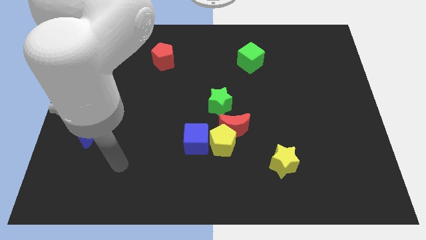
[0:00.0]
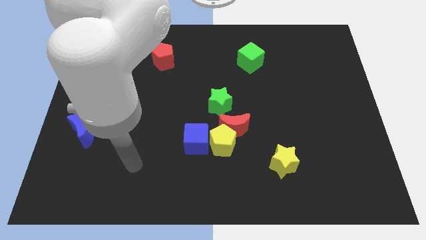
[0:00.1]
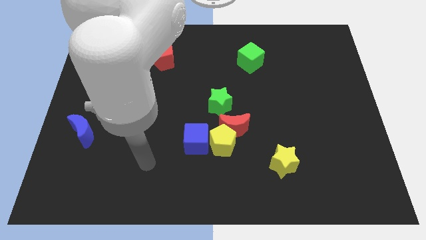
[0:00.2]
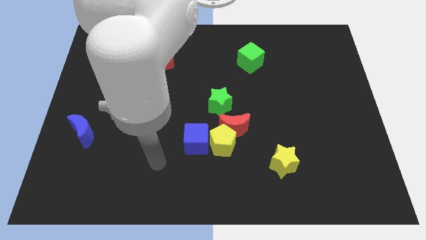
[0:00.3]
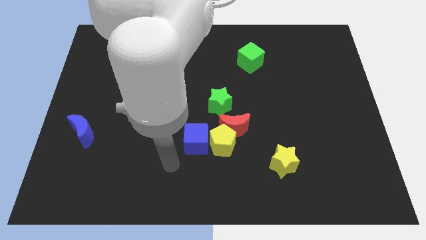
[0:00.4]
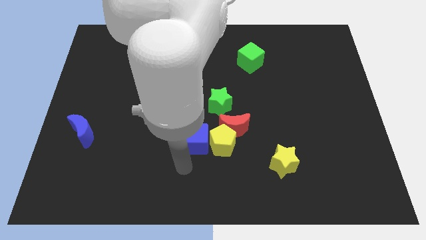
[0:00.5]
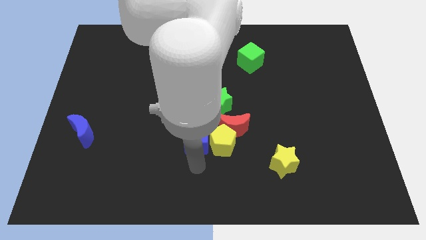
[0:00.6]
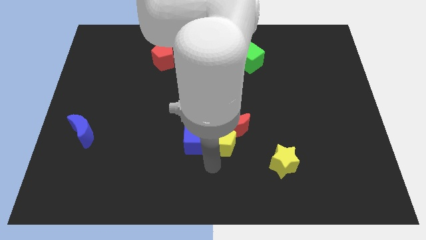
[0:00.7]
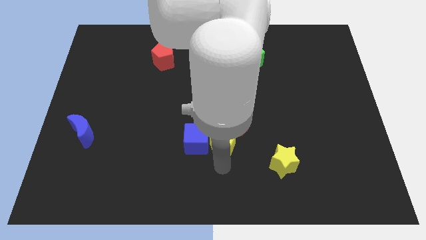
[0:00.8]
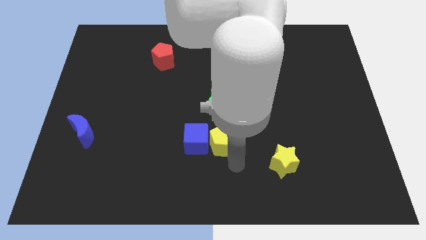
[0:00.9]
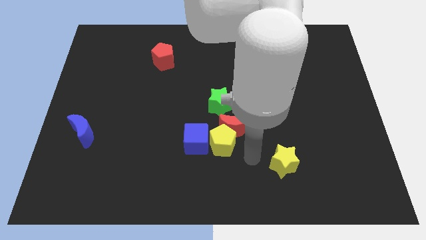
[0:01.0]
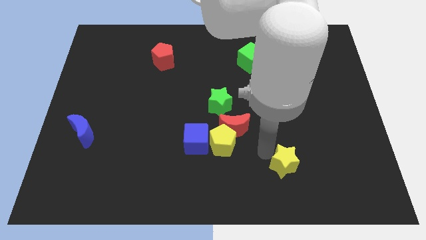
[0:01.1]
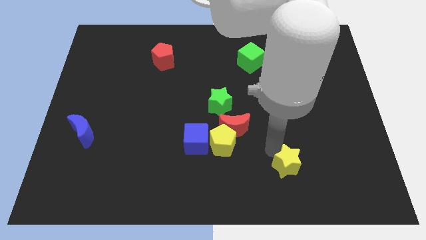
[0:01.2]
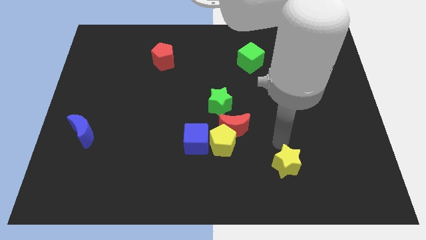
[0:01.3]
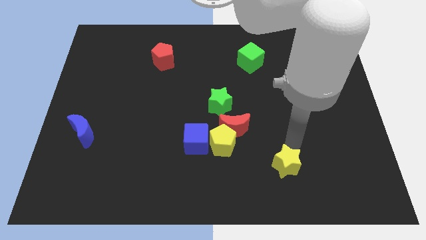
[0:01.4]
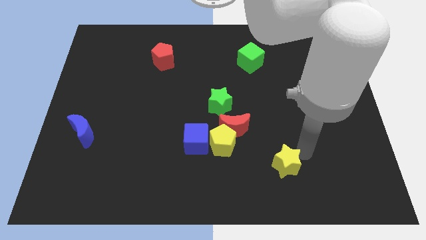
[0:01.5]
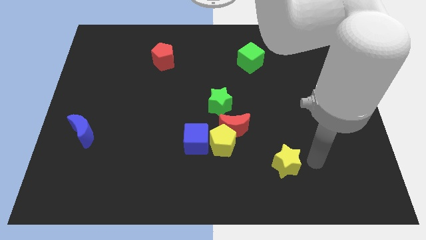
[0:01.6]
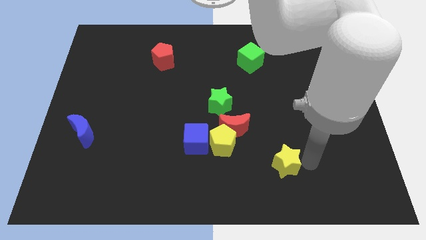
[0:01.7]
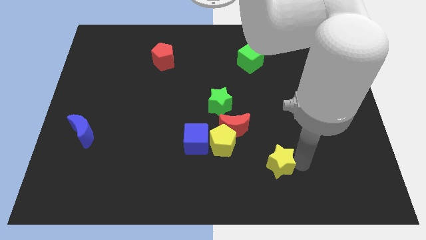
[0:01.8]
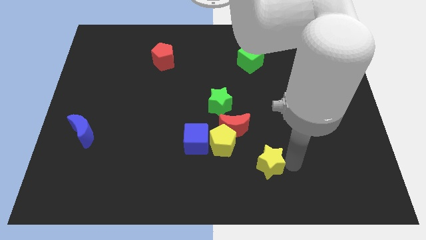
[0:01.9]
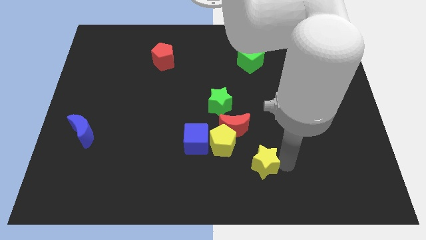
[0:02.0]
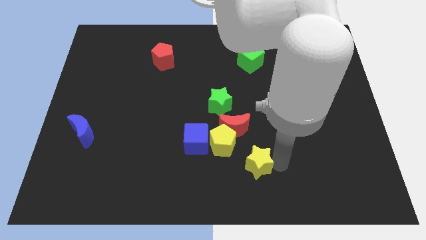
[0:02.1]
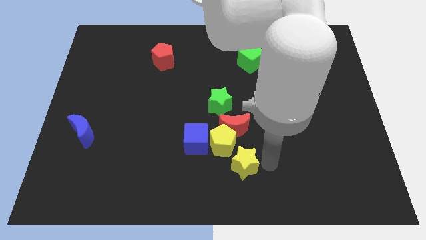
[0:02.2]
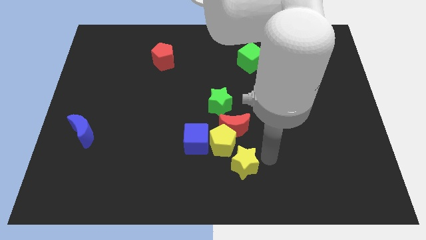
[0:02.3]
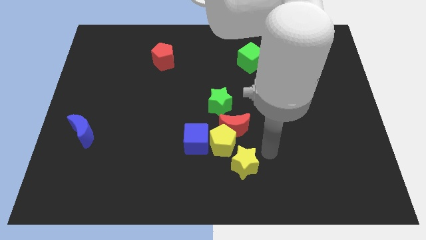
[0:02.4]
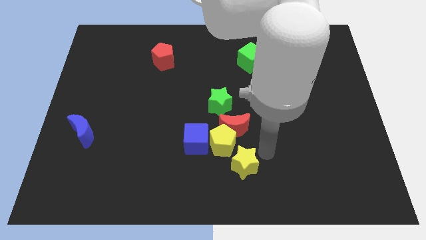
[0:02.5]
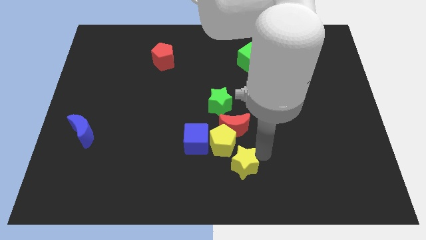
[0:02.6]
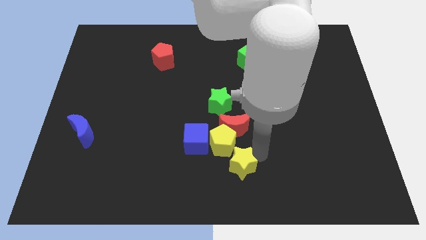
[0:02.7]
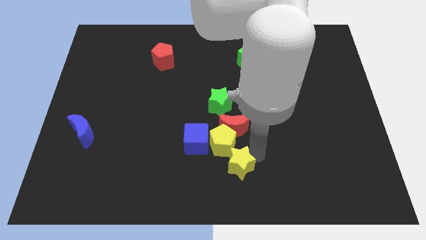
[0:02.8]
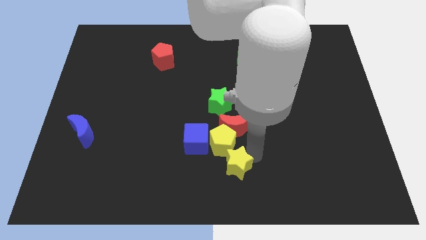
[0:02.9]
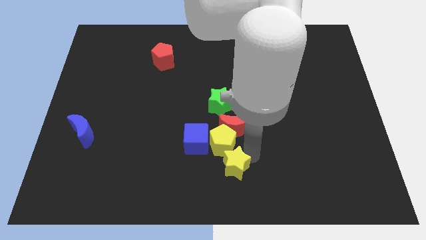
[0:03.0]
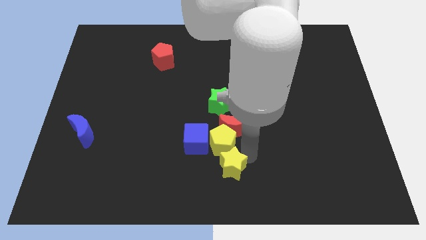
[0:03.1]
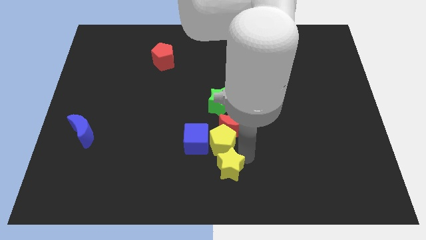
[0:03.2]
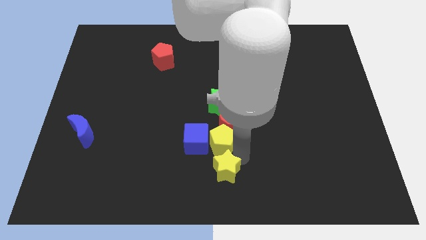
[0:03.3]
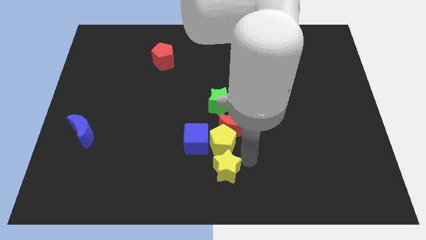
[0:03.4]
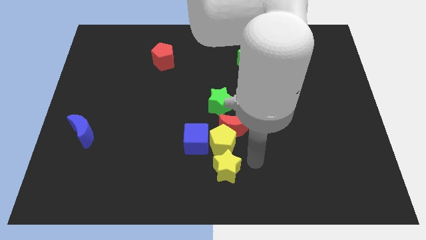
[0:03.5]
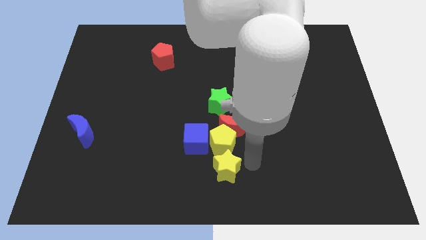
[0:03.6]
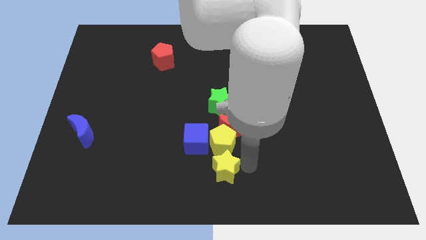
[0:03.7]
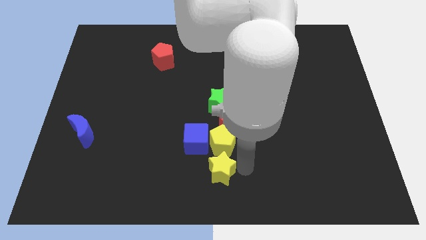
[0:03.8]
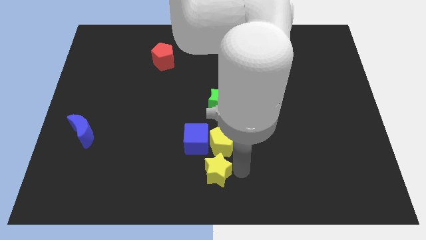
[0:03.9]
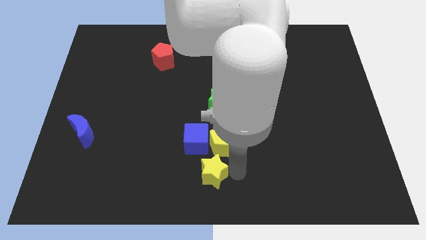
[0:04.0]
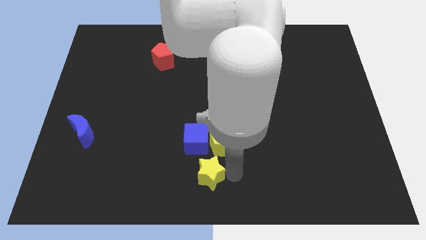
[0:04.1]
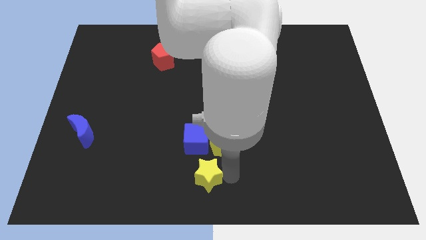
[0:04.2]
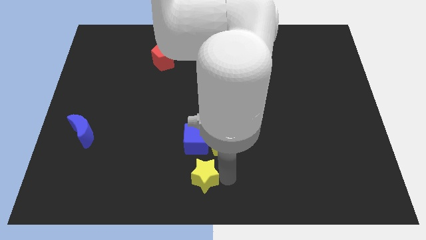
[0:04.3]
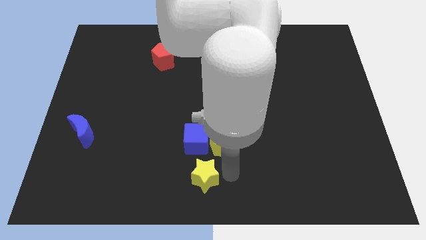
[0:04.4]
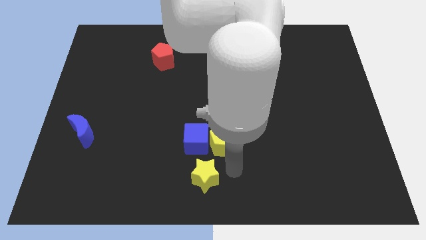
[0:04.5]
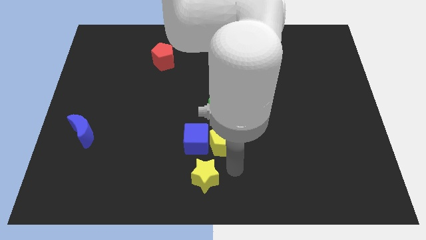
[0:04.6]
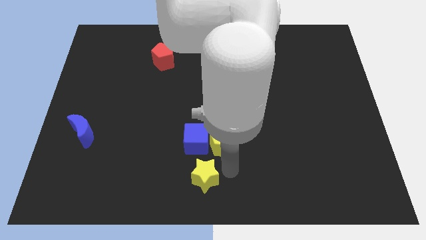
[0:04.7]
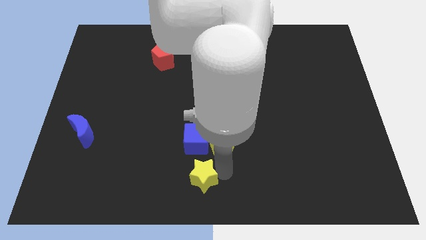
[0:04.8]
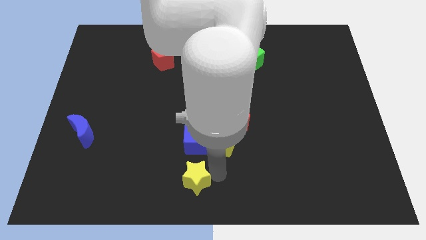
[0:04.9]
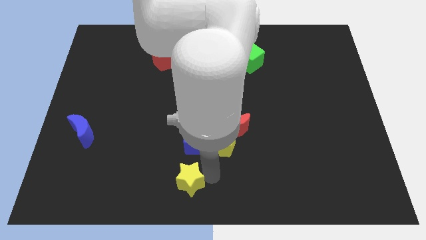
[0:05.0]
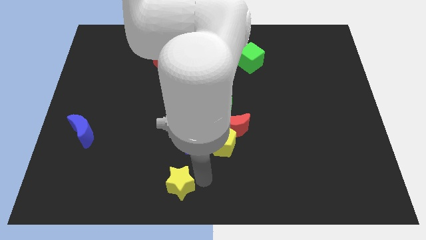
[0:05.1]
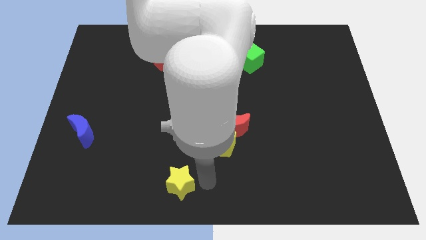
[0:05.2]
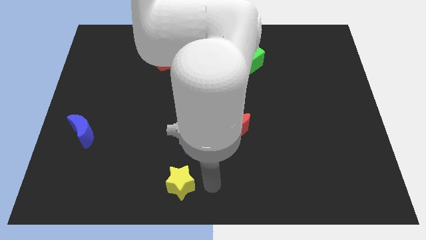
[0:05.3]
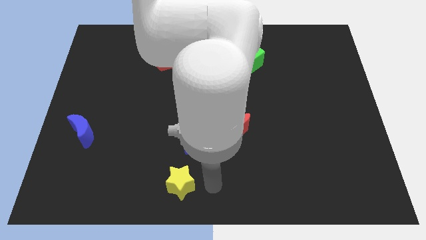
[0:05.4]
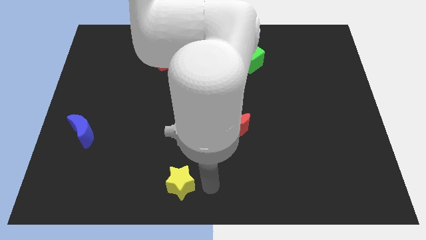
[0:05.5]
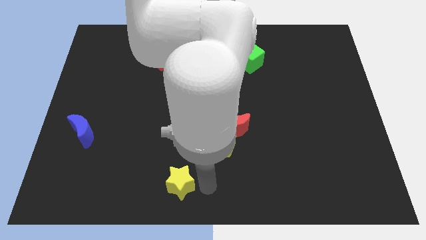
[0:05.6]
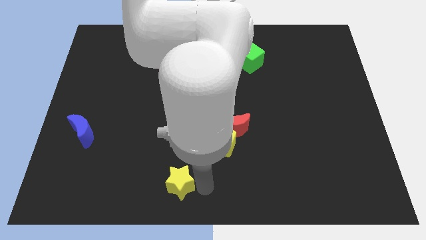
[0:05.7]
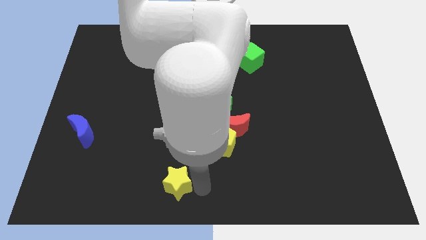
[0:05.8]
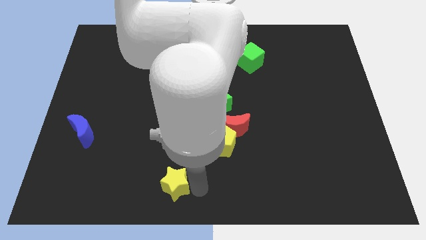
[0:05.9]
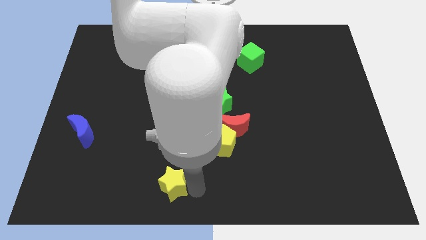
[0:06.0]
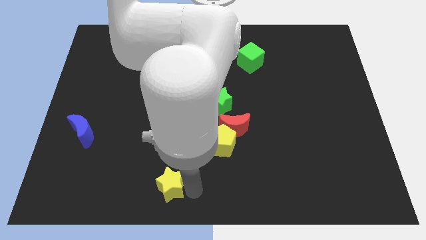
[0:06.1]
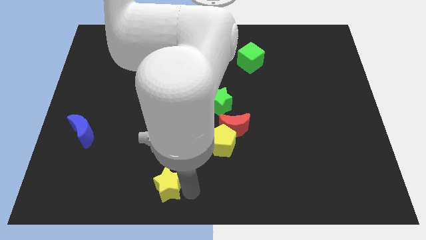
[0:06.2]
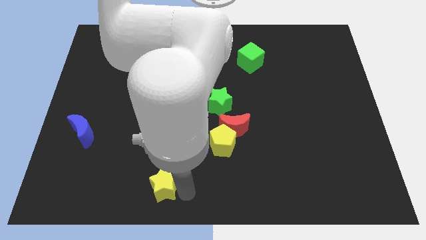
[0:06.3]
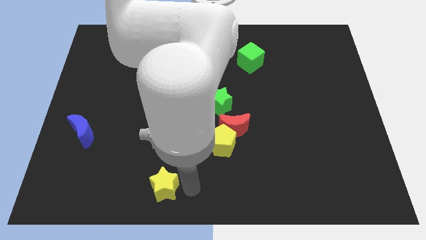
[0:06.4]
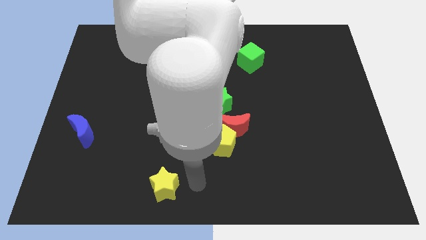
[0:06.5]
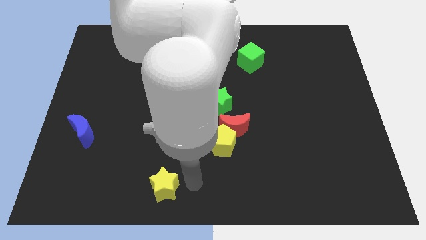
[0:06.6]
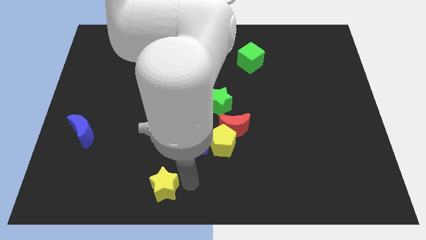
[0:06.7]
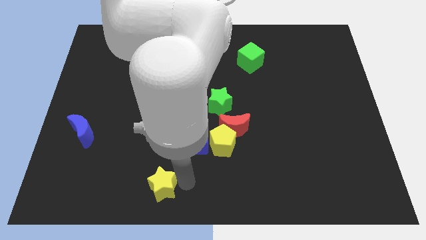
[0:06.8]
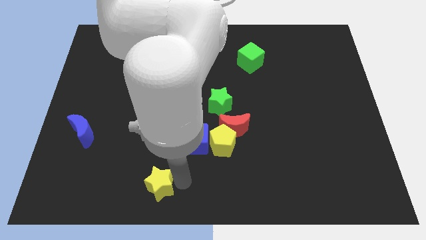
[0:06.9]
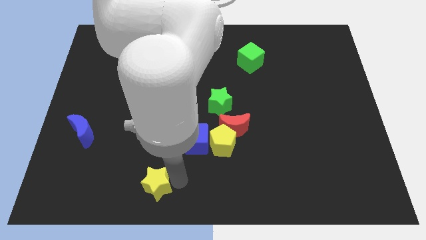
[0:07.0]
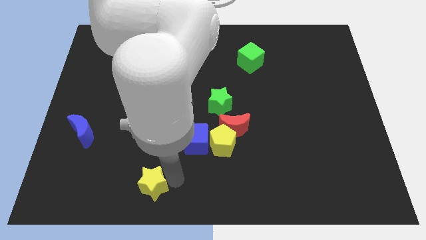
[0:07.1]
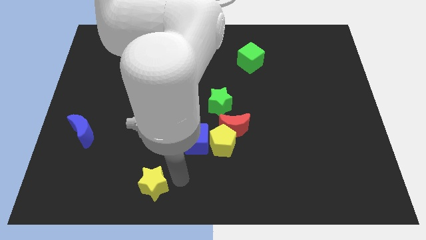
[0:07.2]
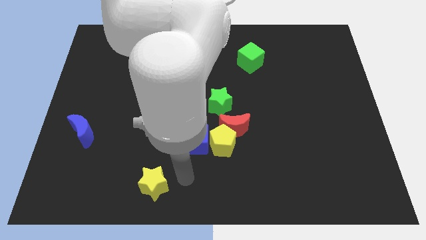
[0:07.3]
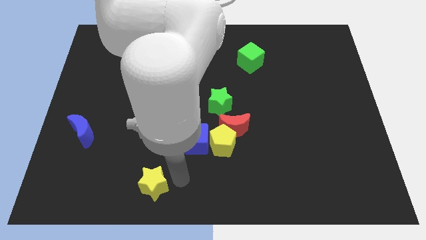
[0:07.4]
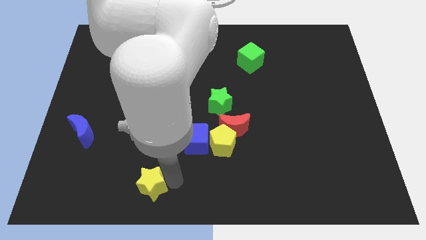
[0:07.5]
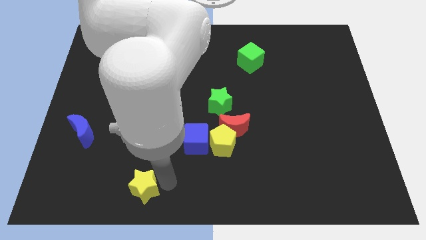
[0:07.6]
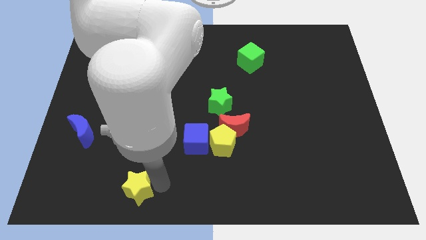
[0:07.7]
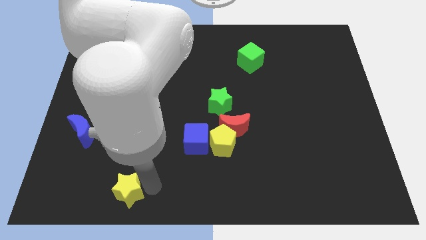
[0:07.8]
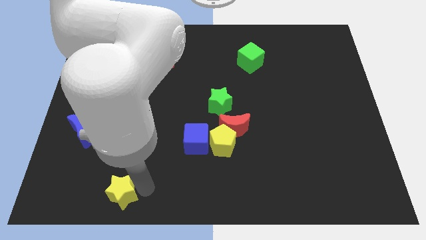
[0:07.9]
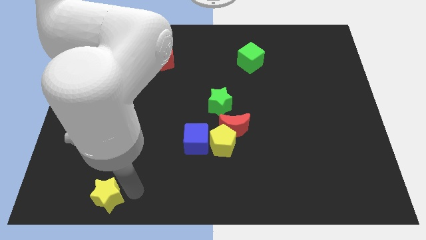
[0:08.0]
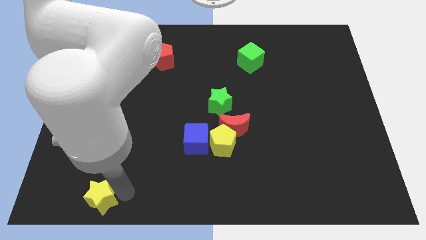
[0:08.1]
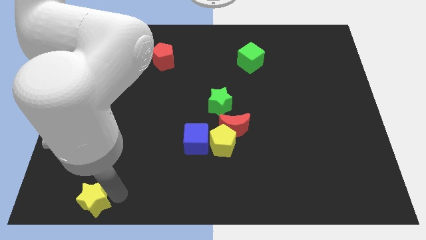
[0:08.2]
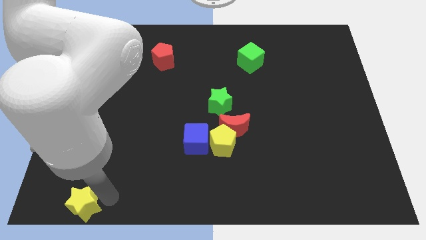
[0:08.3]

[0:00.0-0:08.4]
push the yellow star to the bottom left

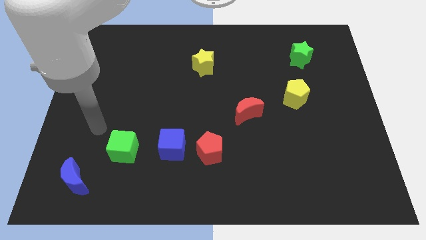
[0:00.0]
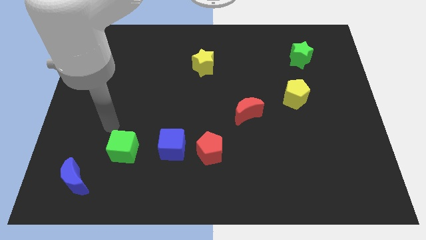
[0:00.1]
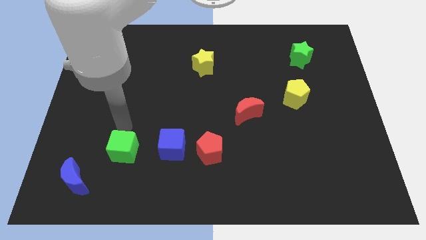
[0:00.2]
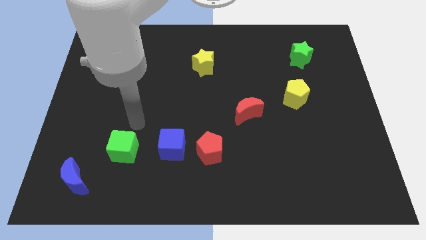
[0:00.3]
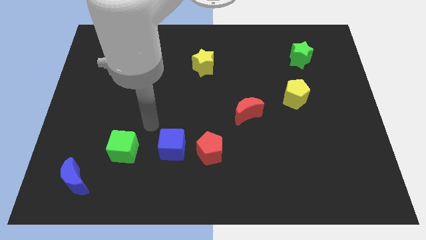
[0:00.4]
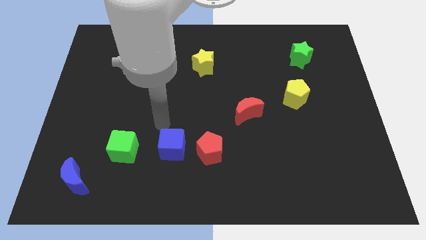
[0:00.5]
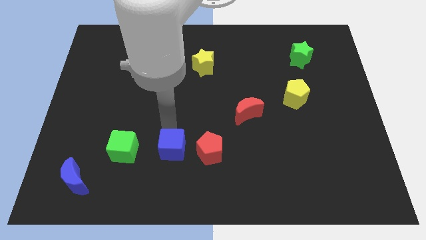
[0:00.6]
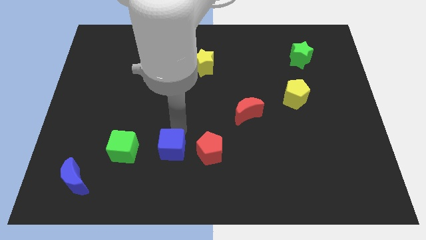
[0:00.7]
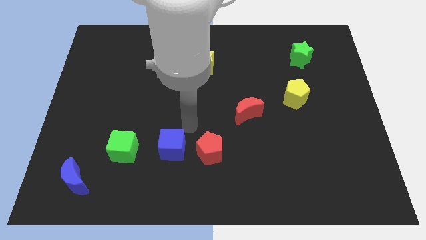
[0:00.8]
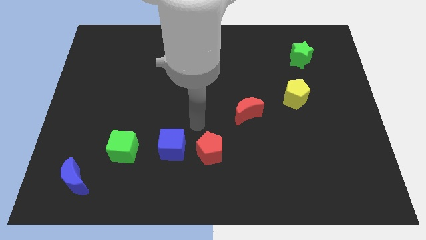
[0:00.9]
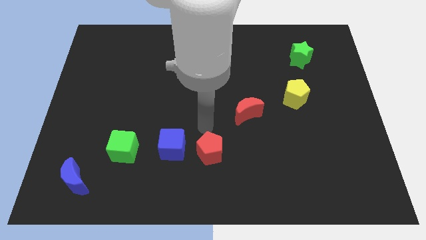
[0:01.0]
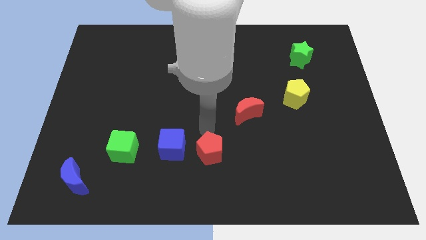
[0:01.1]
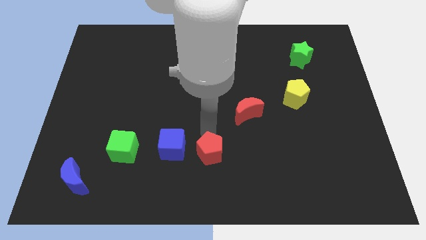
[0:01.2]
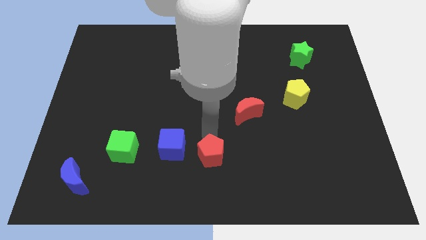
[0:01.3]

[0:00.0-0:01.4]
move the red pentagon to the bottom side
